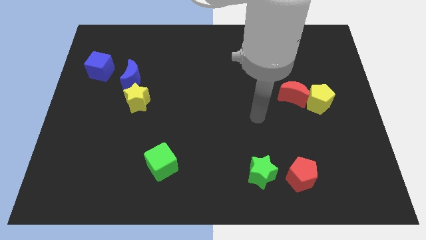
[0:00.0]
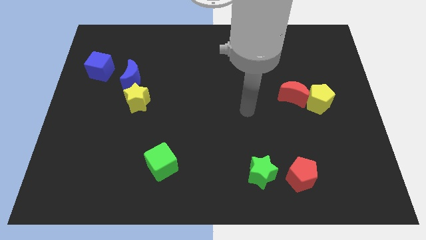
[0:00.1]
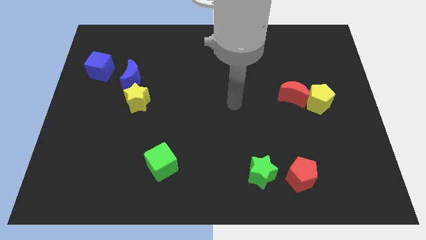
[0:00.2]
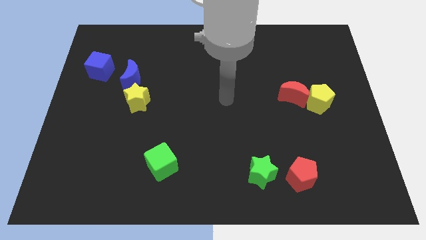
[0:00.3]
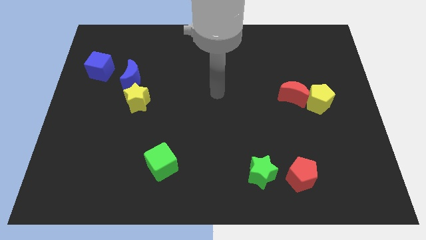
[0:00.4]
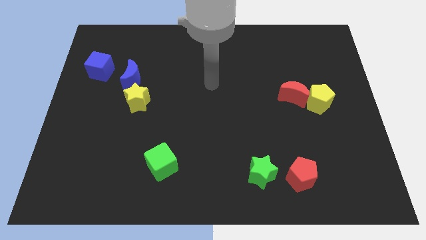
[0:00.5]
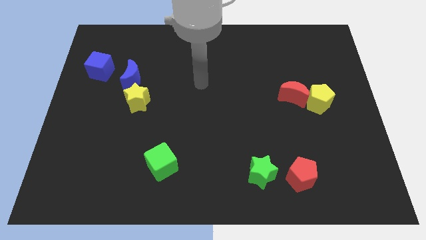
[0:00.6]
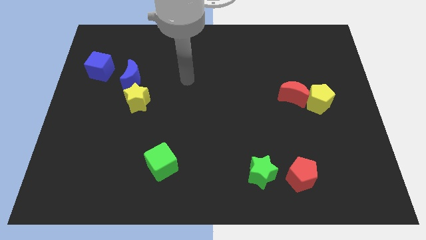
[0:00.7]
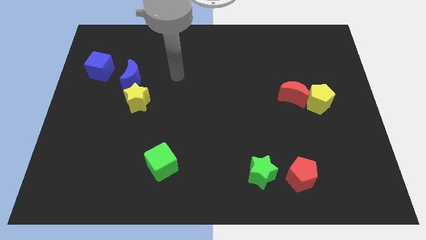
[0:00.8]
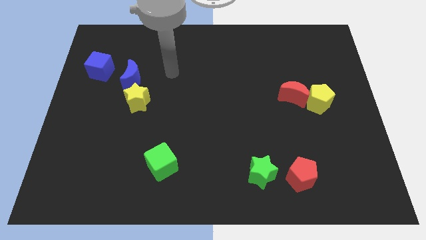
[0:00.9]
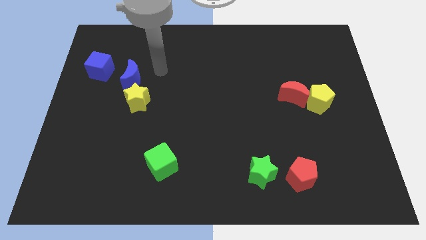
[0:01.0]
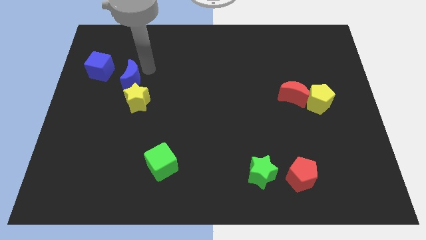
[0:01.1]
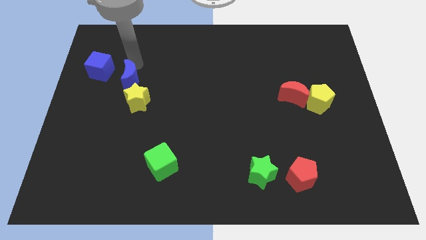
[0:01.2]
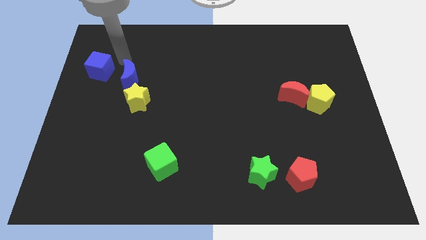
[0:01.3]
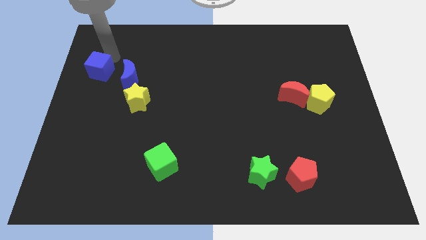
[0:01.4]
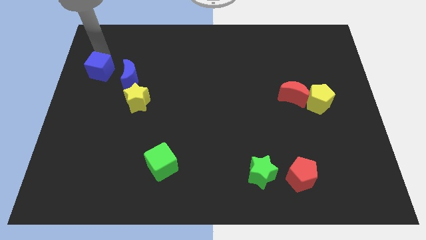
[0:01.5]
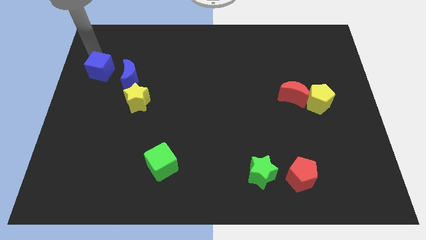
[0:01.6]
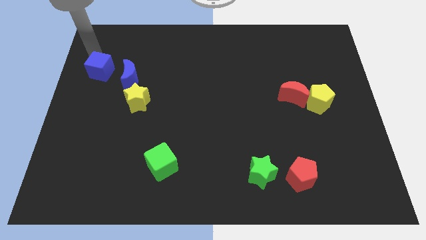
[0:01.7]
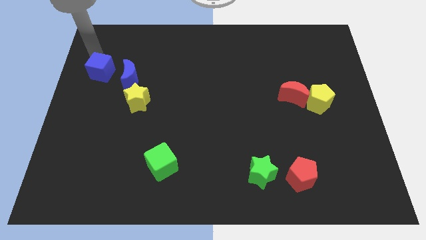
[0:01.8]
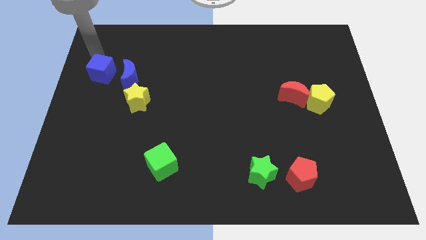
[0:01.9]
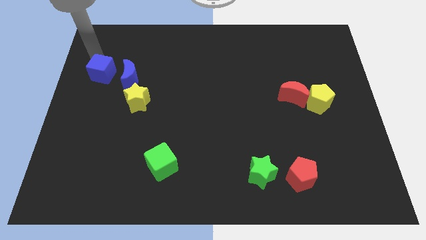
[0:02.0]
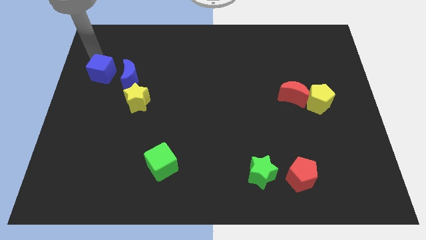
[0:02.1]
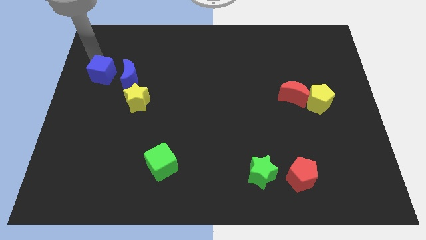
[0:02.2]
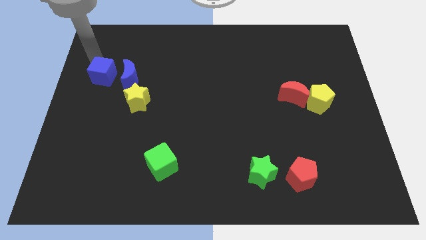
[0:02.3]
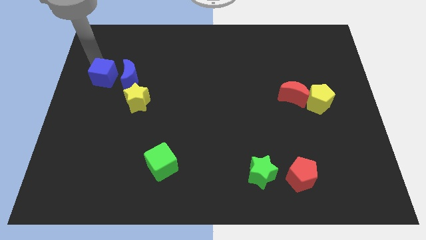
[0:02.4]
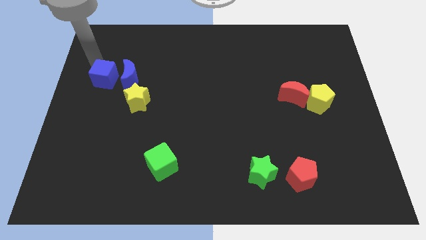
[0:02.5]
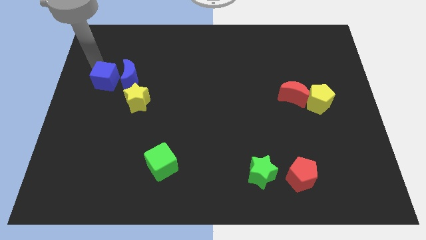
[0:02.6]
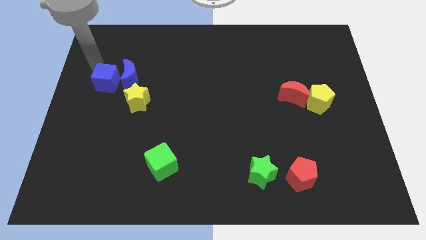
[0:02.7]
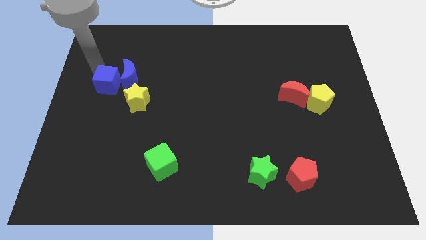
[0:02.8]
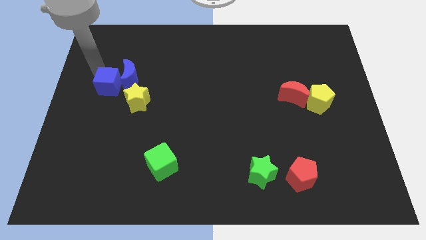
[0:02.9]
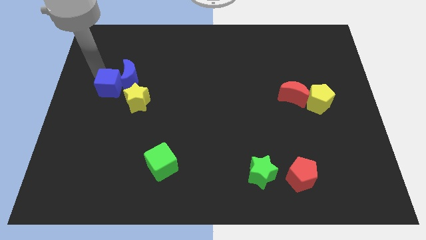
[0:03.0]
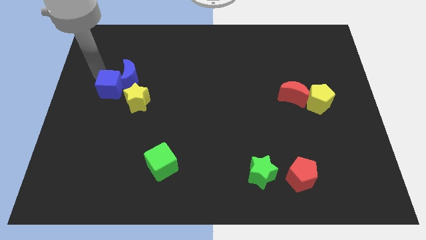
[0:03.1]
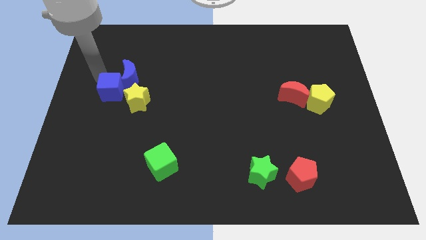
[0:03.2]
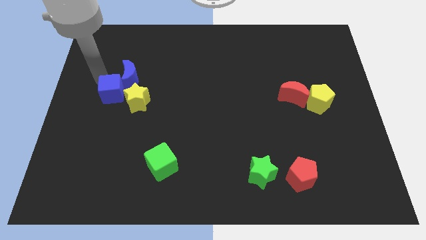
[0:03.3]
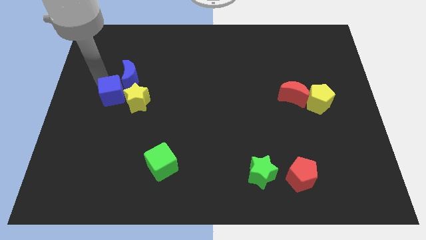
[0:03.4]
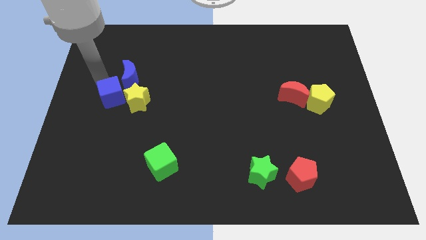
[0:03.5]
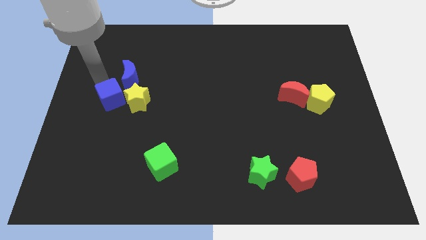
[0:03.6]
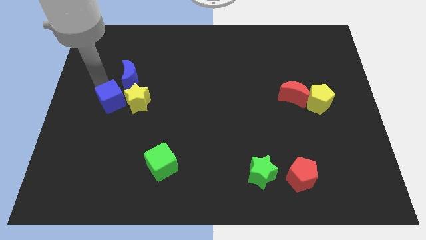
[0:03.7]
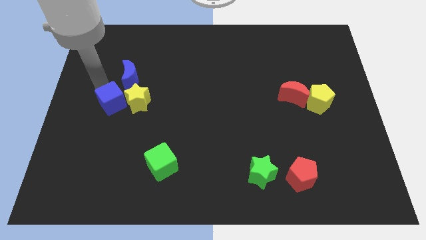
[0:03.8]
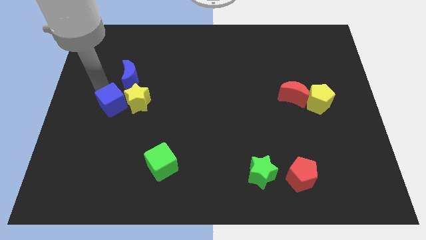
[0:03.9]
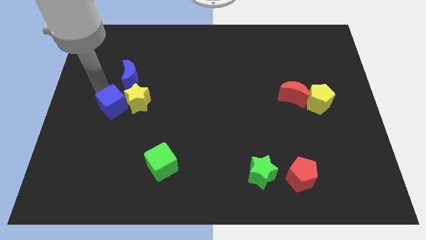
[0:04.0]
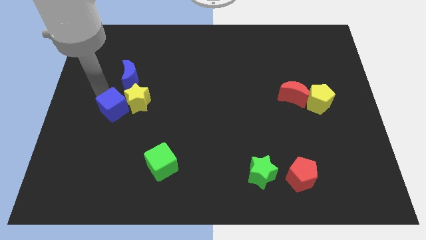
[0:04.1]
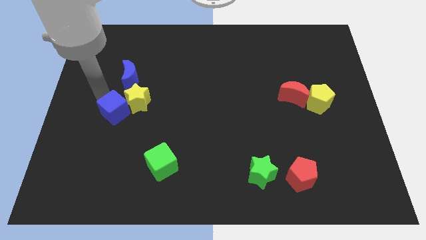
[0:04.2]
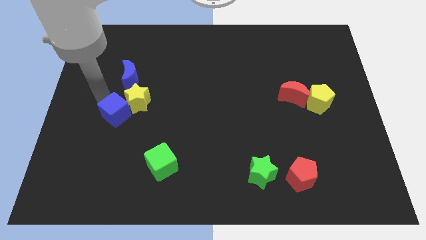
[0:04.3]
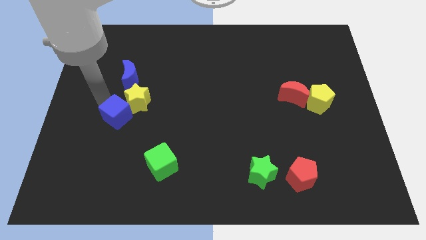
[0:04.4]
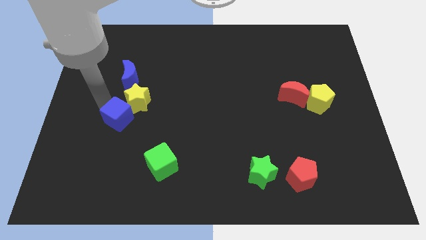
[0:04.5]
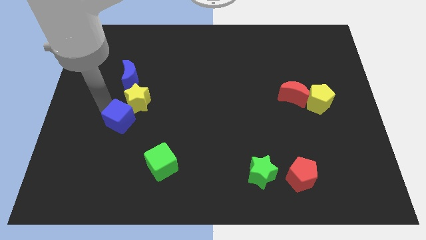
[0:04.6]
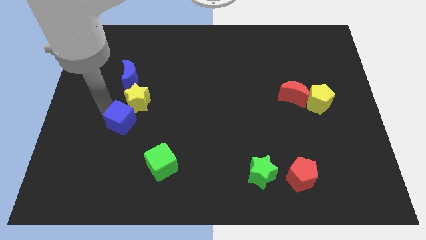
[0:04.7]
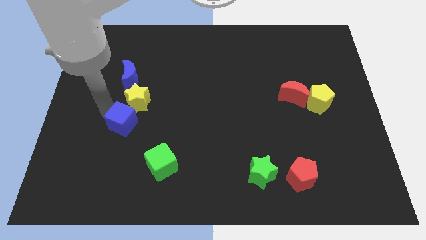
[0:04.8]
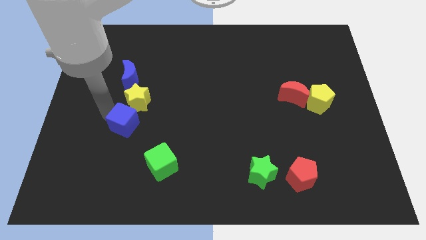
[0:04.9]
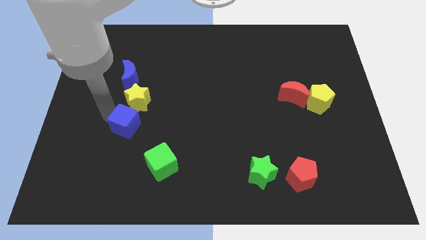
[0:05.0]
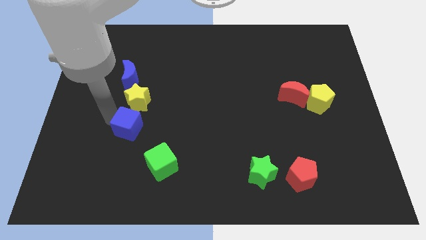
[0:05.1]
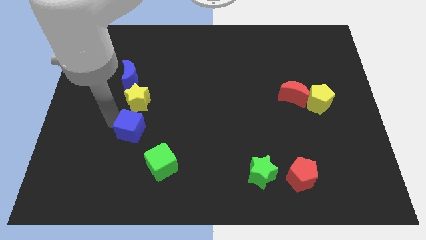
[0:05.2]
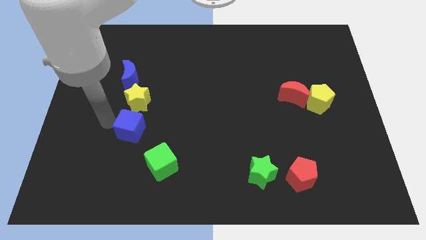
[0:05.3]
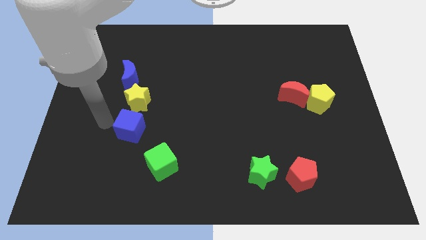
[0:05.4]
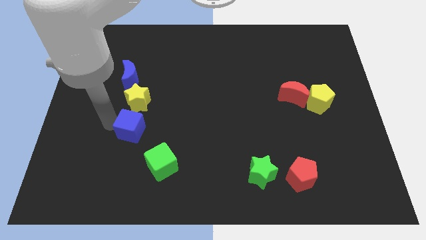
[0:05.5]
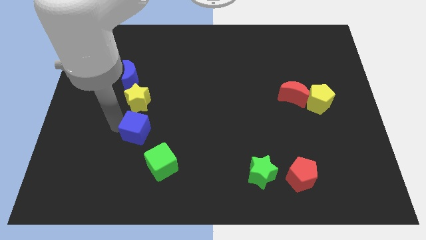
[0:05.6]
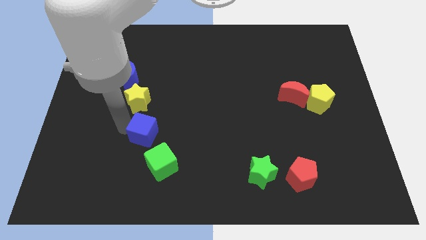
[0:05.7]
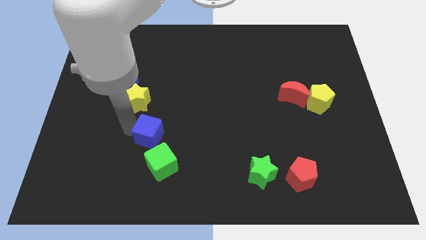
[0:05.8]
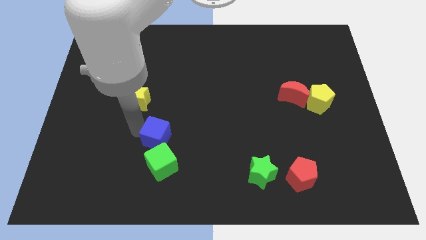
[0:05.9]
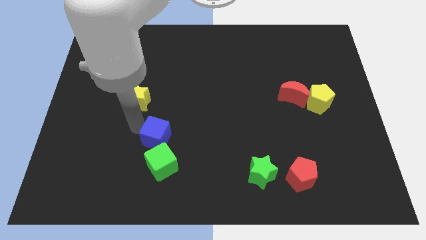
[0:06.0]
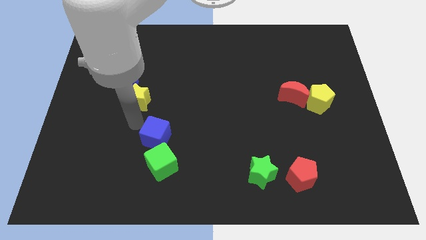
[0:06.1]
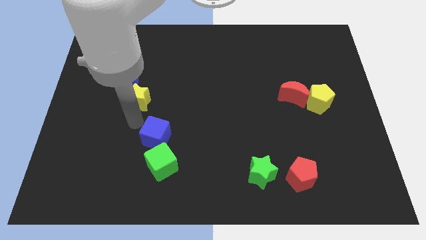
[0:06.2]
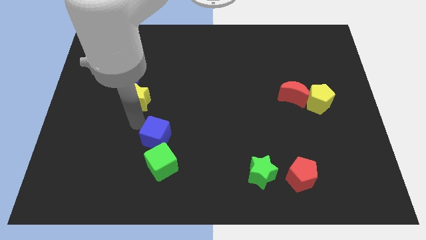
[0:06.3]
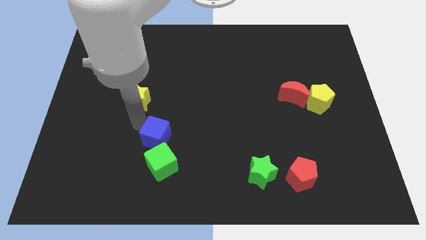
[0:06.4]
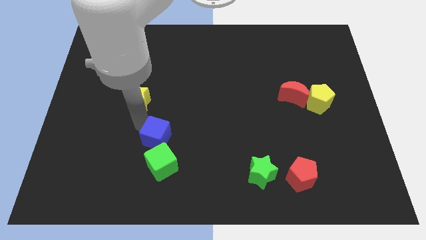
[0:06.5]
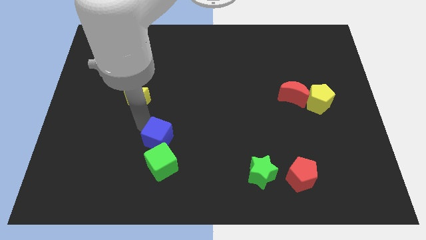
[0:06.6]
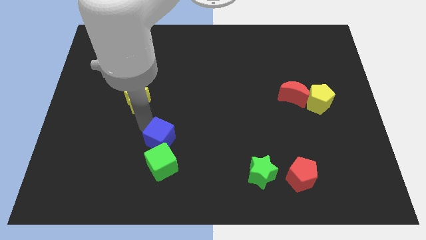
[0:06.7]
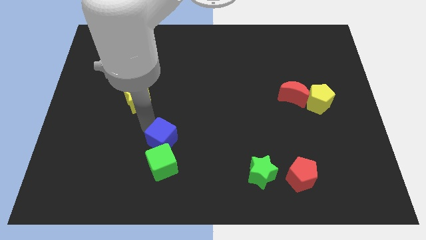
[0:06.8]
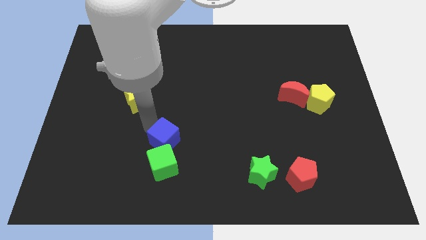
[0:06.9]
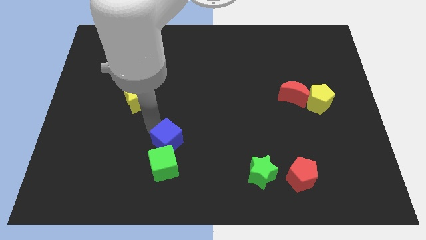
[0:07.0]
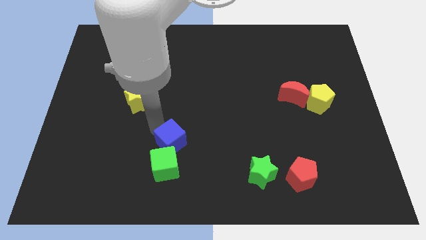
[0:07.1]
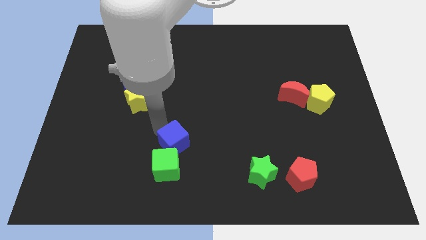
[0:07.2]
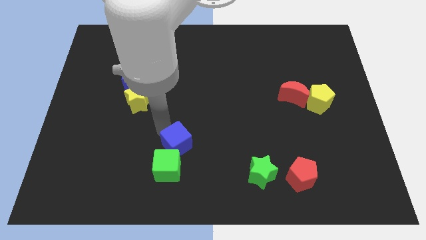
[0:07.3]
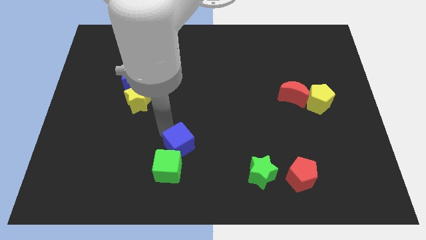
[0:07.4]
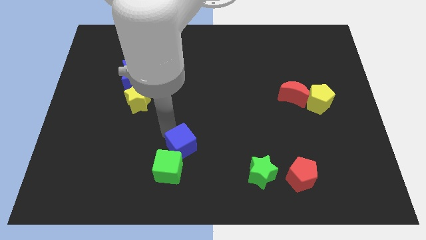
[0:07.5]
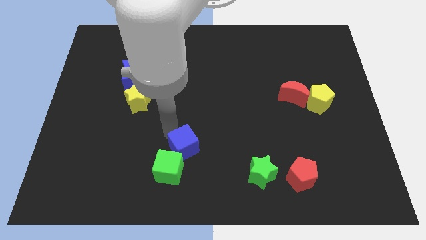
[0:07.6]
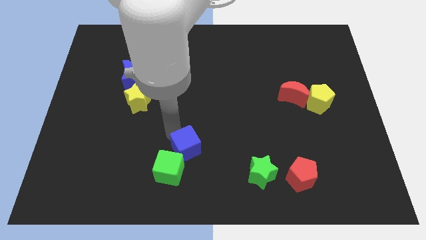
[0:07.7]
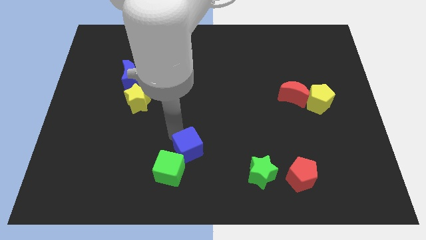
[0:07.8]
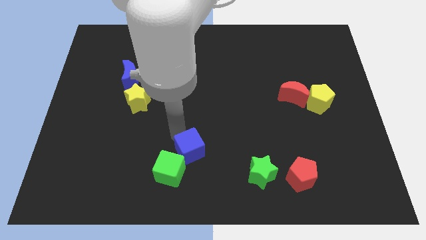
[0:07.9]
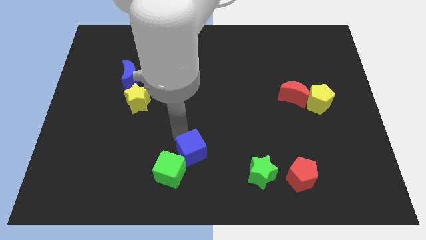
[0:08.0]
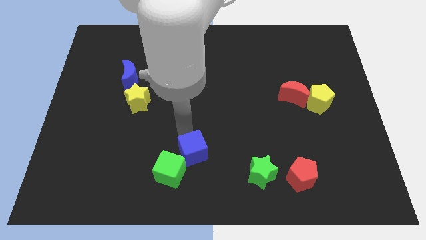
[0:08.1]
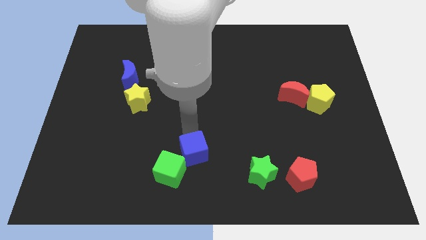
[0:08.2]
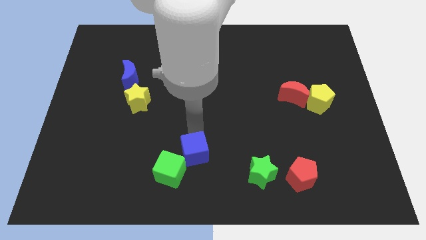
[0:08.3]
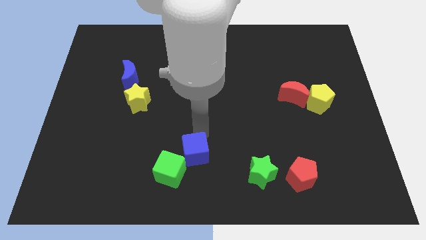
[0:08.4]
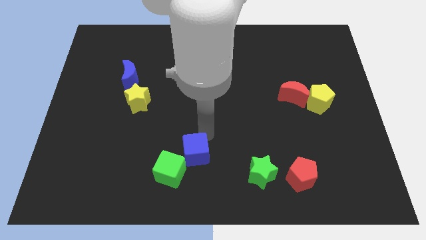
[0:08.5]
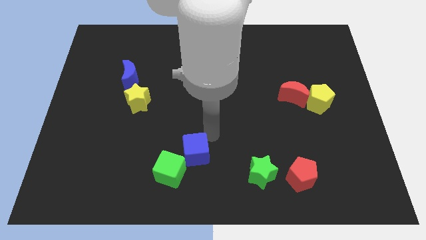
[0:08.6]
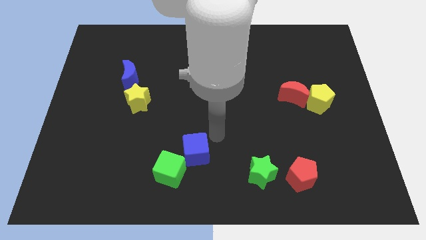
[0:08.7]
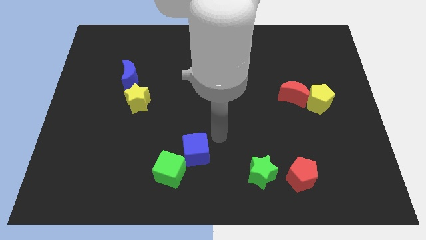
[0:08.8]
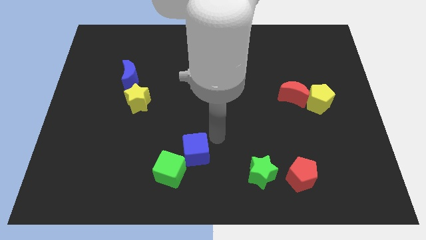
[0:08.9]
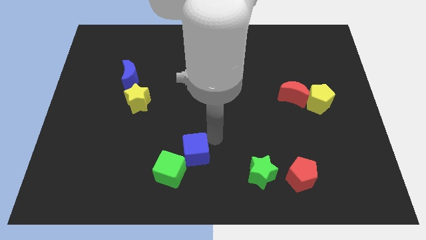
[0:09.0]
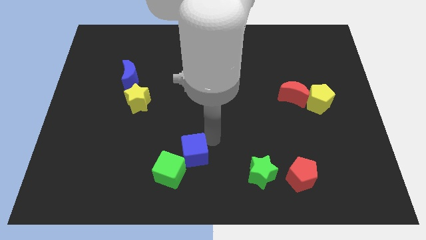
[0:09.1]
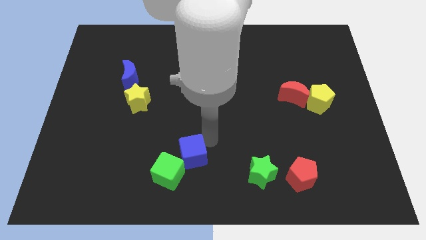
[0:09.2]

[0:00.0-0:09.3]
slide the blue cube to the bottom side
